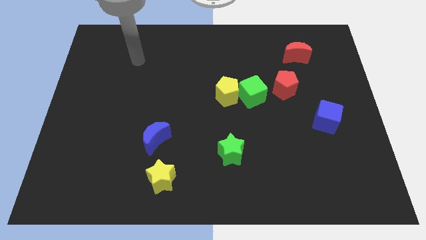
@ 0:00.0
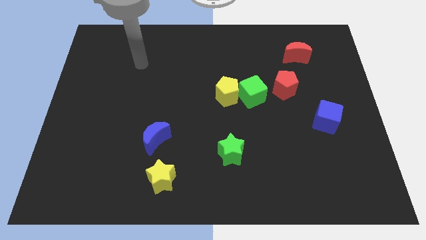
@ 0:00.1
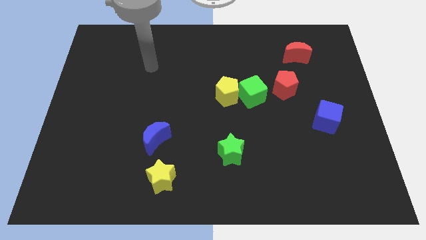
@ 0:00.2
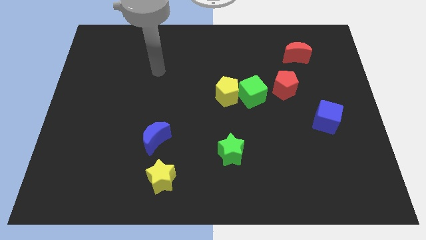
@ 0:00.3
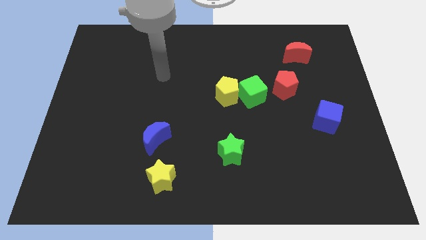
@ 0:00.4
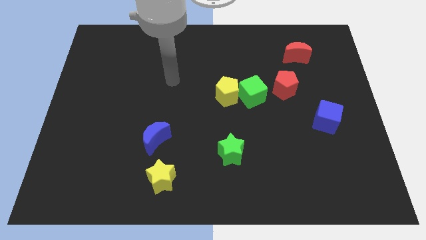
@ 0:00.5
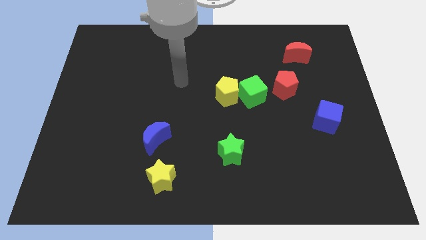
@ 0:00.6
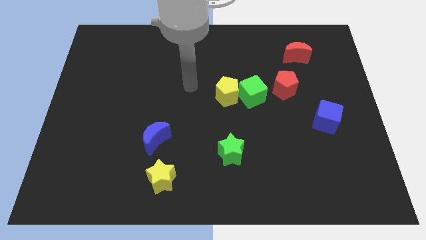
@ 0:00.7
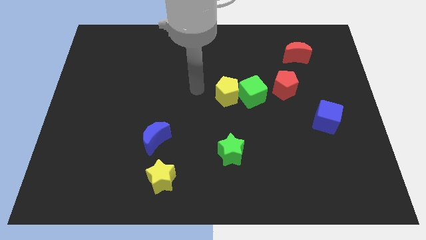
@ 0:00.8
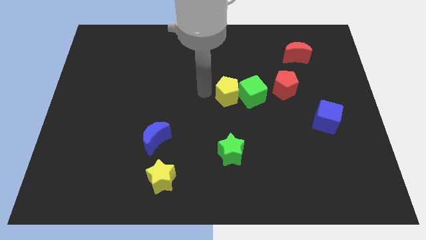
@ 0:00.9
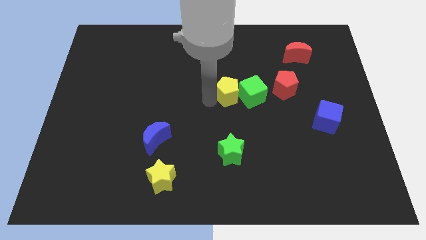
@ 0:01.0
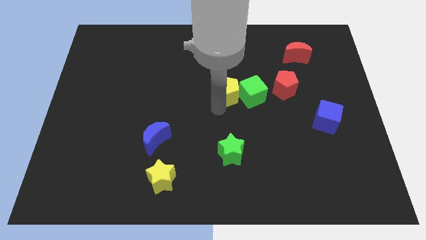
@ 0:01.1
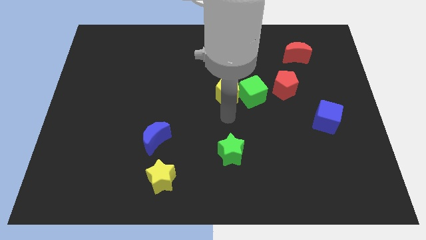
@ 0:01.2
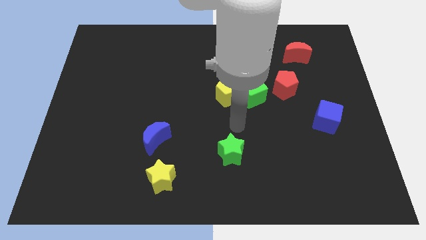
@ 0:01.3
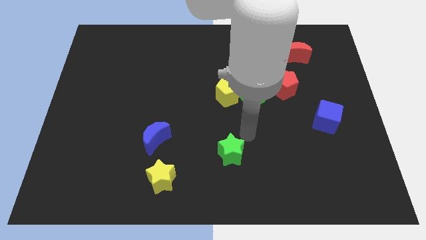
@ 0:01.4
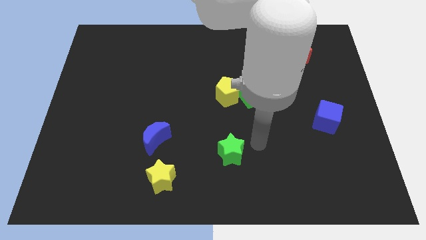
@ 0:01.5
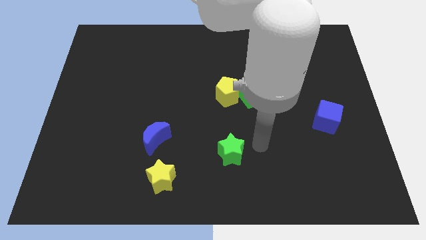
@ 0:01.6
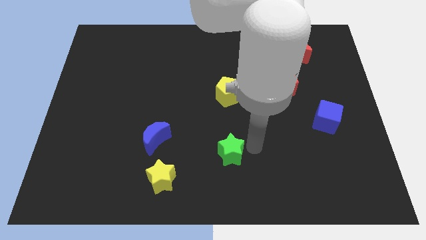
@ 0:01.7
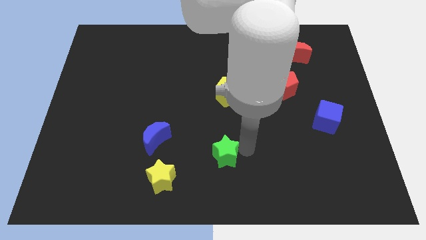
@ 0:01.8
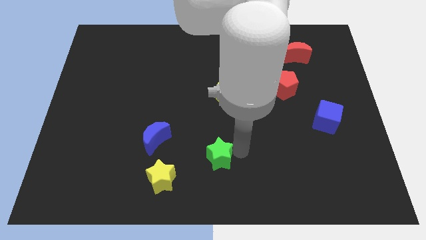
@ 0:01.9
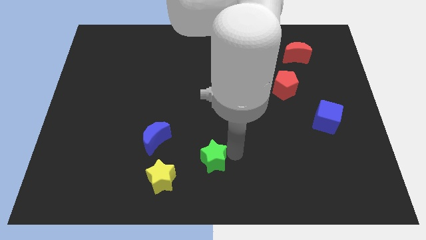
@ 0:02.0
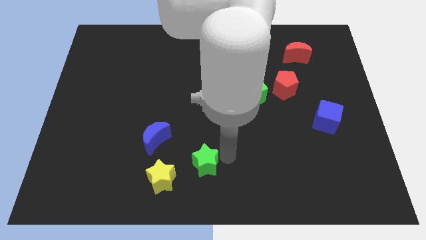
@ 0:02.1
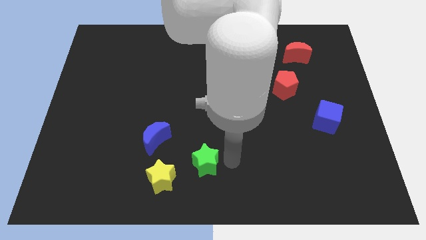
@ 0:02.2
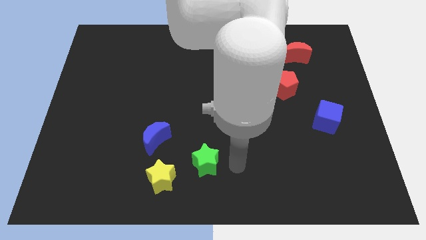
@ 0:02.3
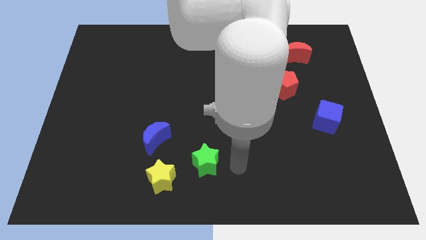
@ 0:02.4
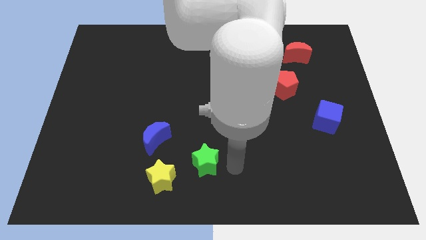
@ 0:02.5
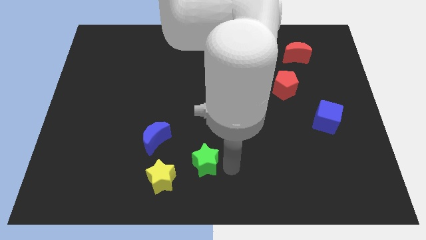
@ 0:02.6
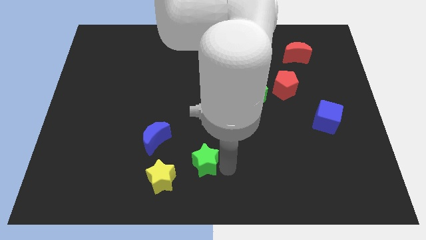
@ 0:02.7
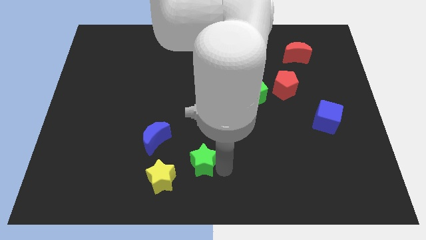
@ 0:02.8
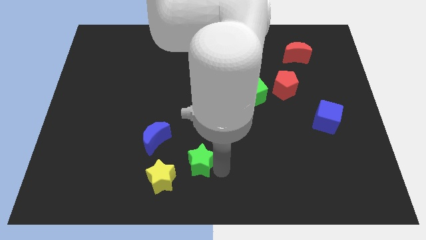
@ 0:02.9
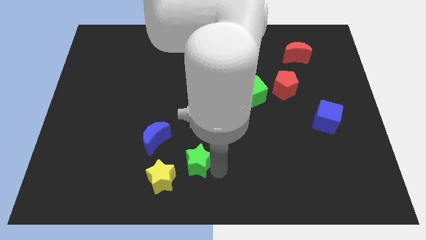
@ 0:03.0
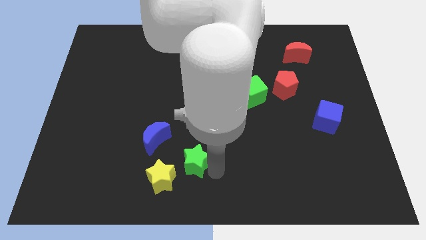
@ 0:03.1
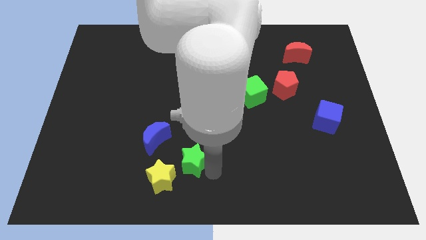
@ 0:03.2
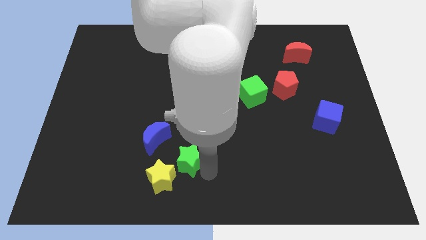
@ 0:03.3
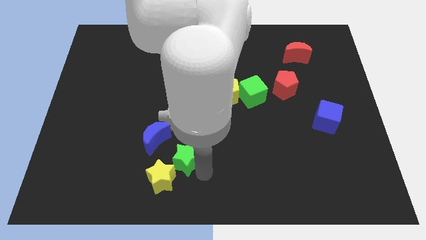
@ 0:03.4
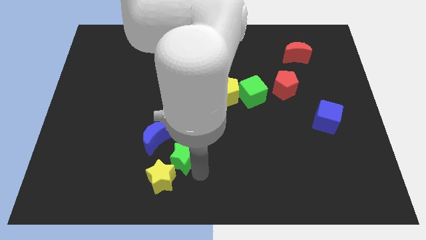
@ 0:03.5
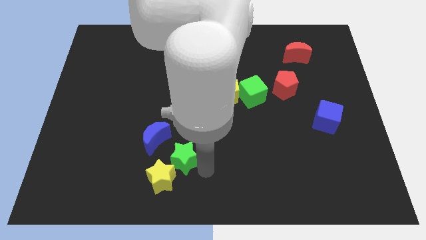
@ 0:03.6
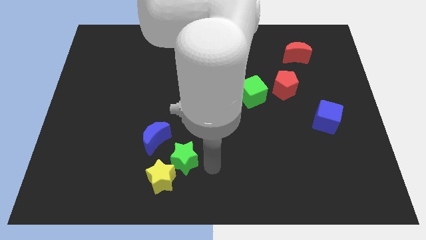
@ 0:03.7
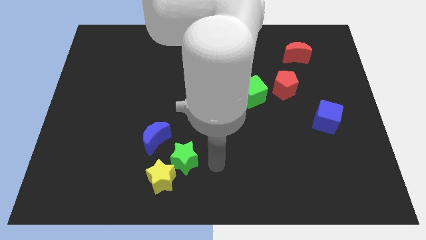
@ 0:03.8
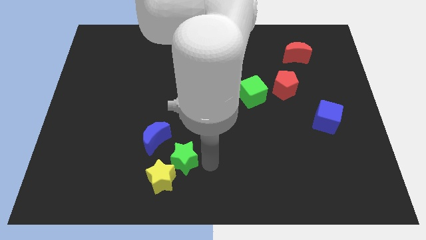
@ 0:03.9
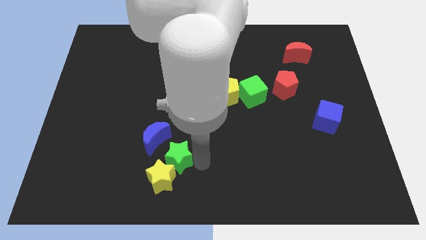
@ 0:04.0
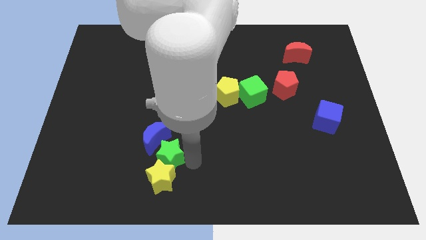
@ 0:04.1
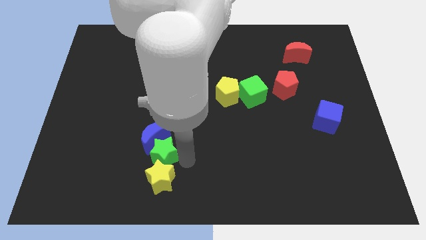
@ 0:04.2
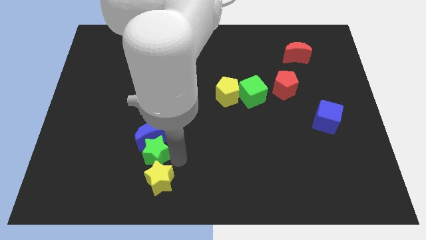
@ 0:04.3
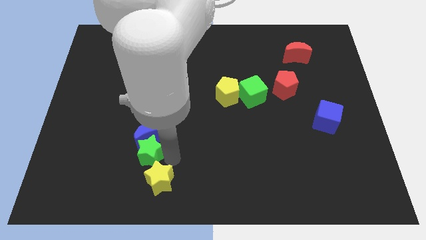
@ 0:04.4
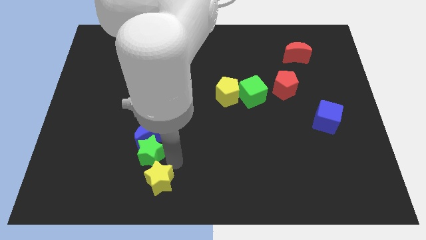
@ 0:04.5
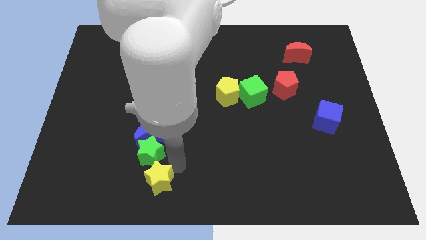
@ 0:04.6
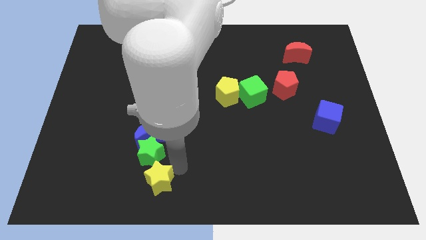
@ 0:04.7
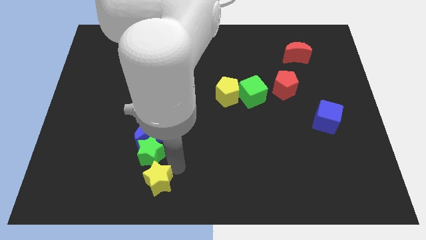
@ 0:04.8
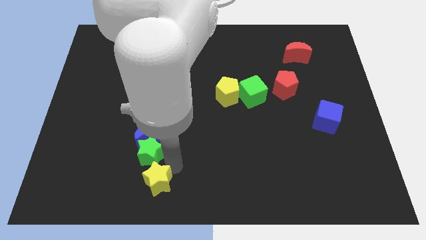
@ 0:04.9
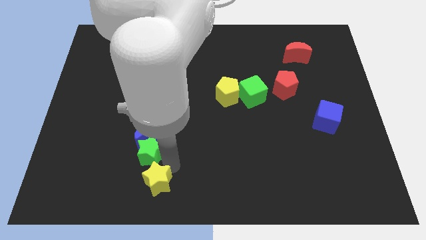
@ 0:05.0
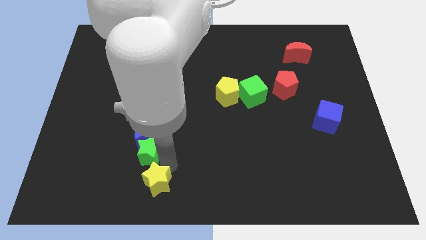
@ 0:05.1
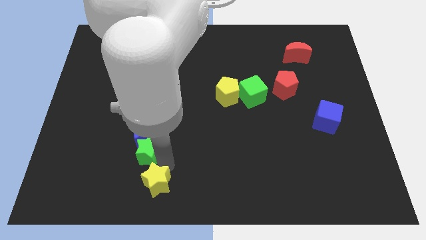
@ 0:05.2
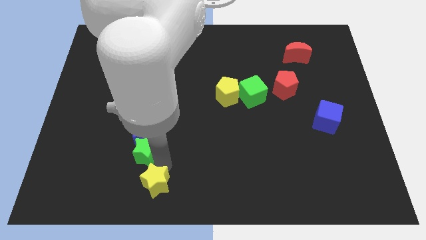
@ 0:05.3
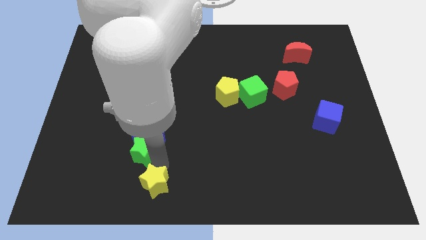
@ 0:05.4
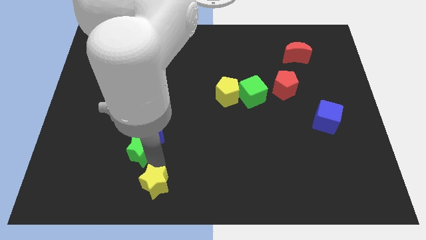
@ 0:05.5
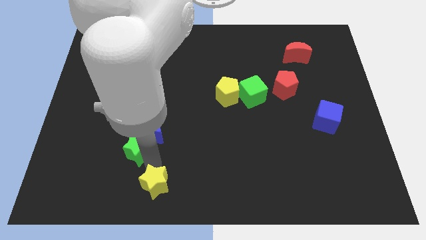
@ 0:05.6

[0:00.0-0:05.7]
push the green star left

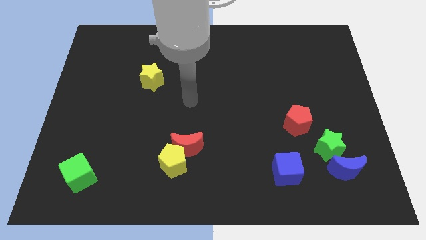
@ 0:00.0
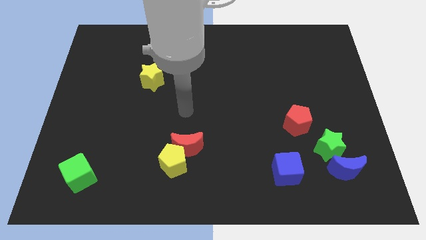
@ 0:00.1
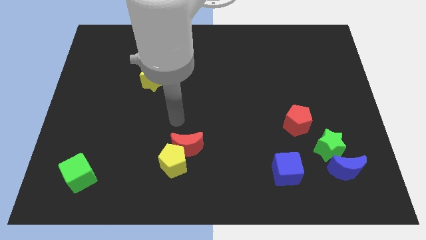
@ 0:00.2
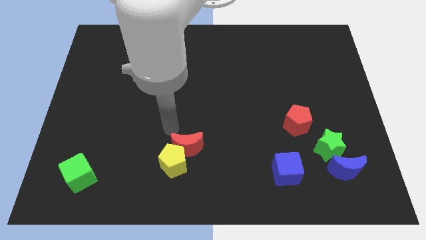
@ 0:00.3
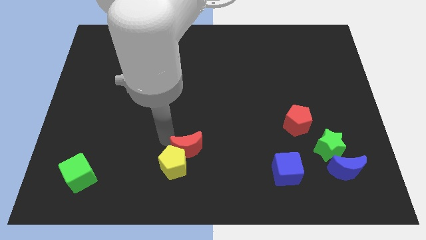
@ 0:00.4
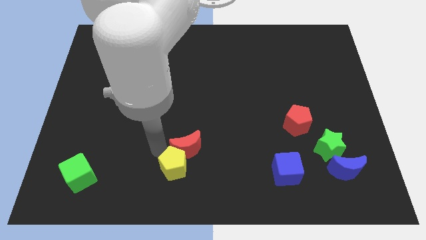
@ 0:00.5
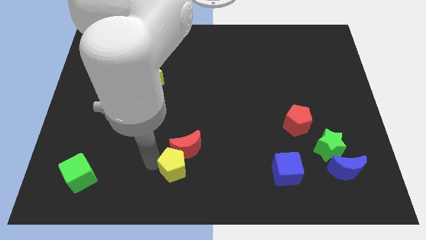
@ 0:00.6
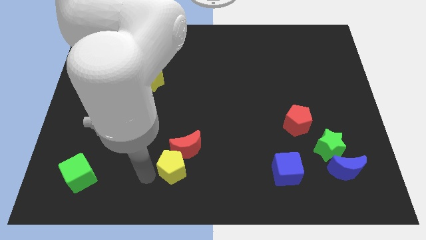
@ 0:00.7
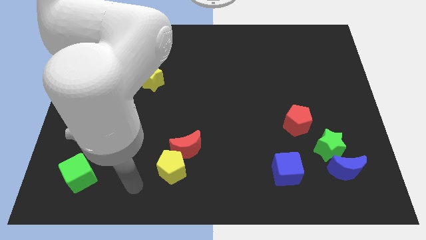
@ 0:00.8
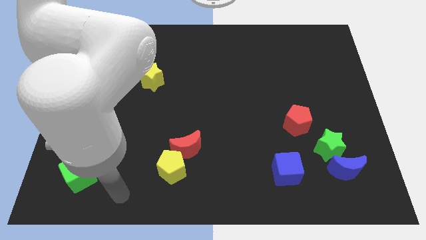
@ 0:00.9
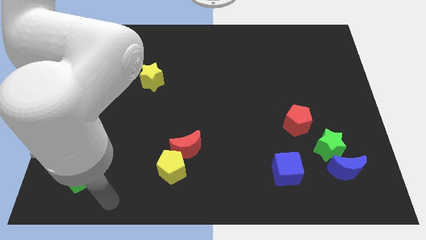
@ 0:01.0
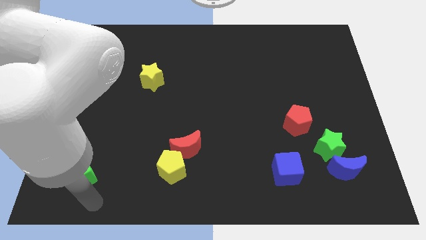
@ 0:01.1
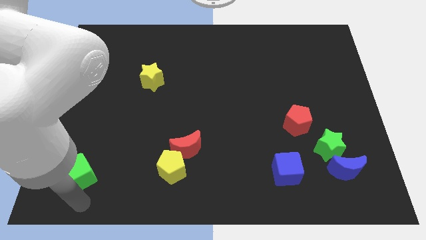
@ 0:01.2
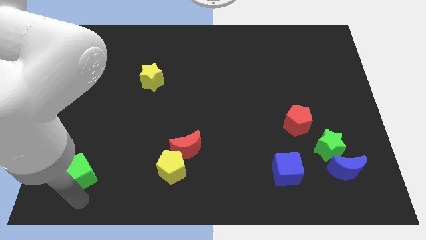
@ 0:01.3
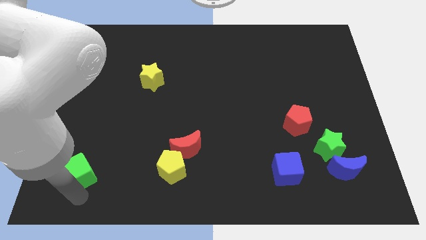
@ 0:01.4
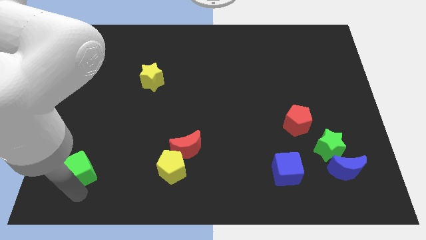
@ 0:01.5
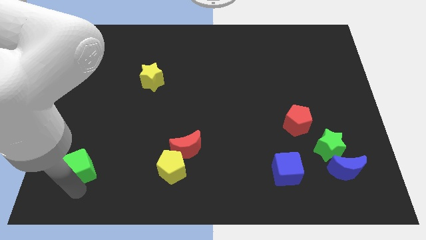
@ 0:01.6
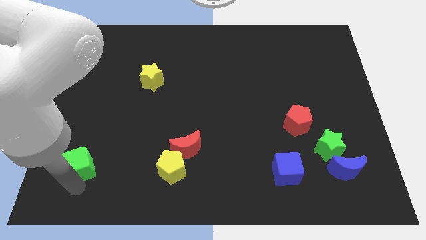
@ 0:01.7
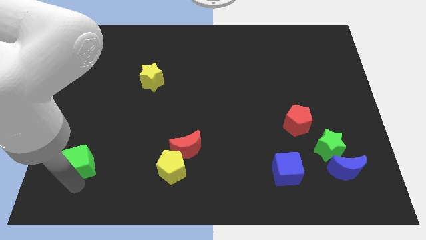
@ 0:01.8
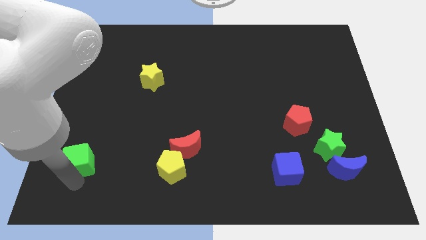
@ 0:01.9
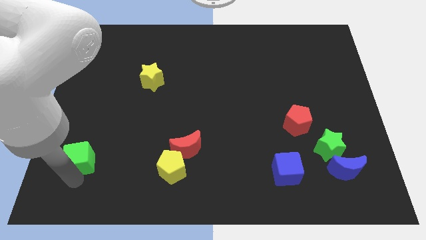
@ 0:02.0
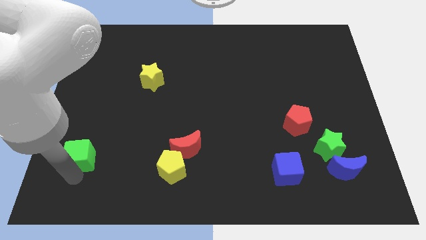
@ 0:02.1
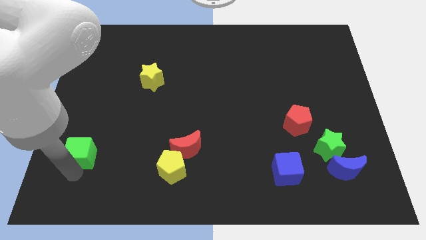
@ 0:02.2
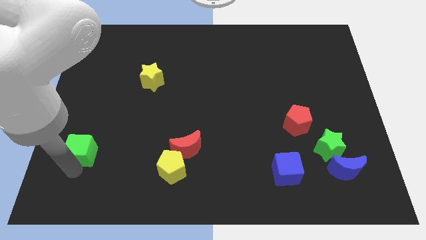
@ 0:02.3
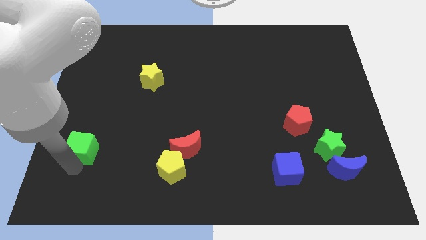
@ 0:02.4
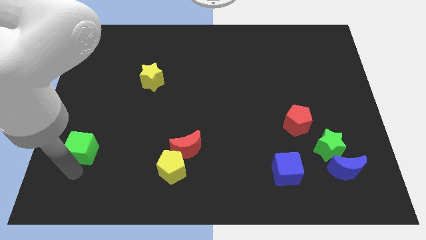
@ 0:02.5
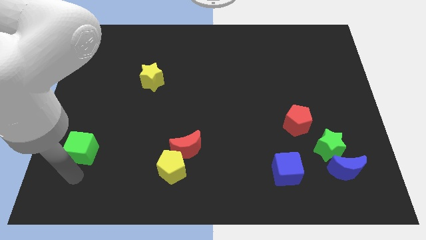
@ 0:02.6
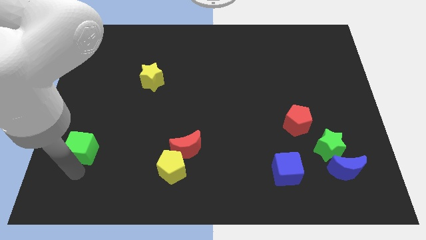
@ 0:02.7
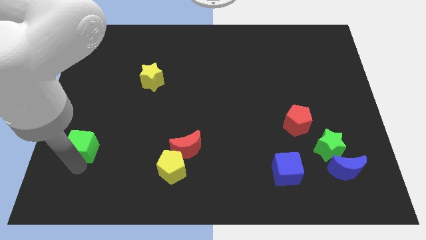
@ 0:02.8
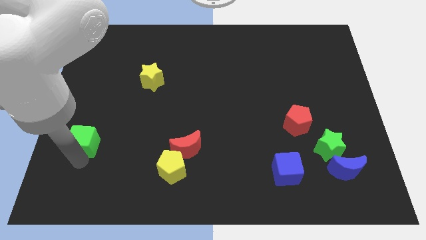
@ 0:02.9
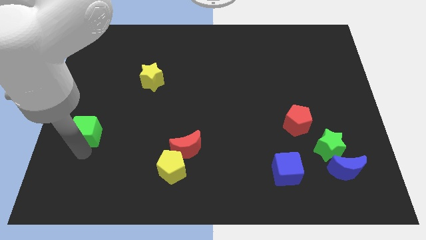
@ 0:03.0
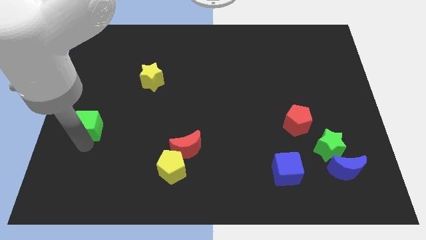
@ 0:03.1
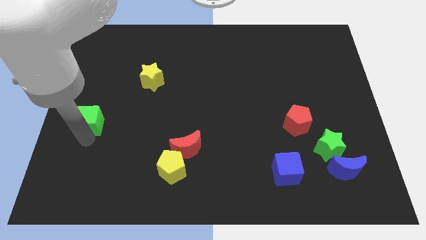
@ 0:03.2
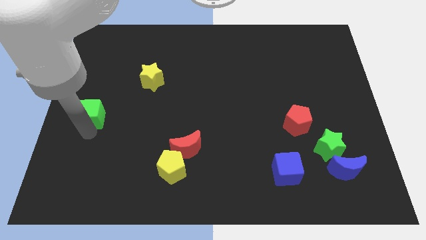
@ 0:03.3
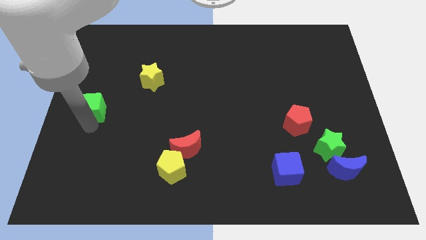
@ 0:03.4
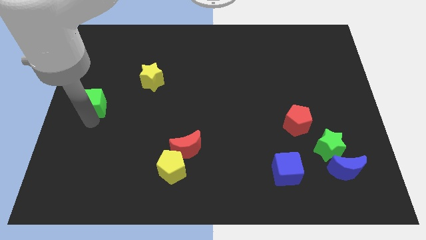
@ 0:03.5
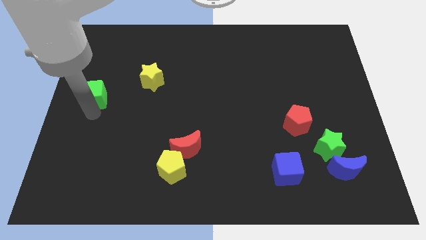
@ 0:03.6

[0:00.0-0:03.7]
move the green cube upwards
